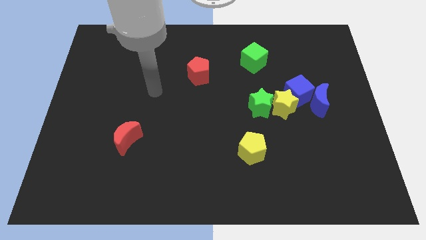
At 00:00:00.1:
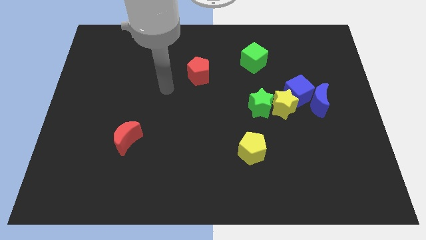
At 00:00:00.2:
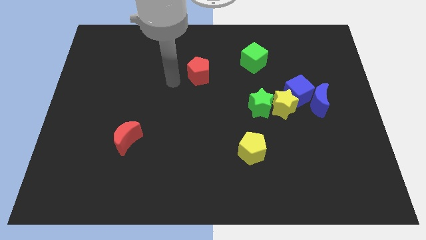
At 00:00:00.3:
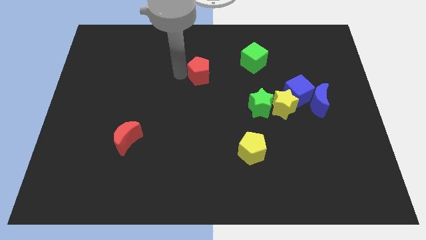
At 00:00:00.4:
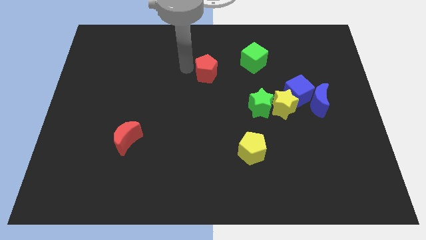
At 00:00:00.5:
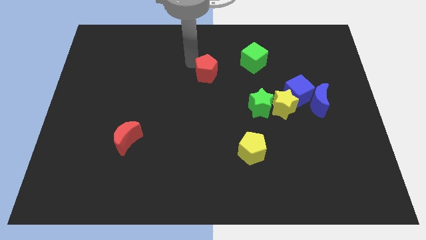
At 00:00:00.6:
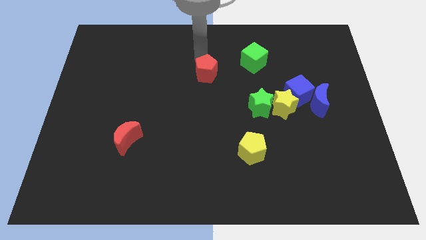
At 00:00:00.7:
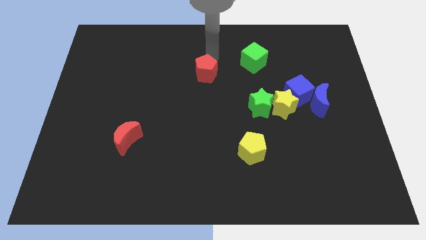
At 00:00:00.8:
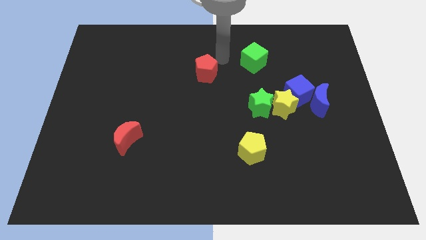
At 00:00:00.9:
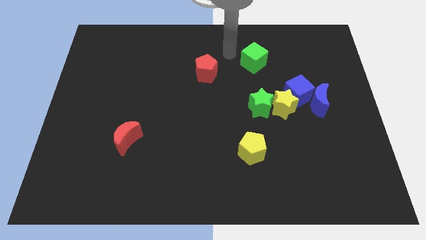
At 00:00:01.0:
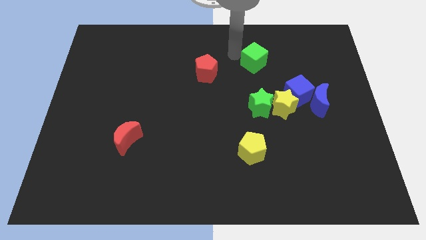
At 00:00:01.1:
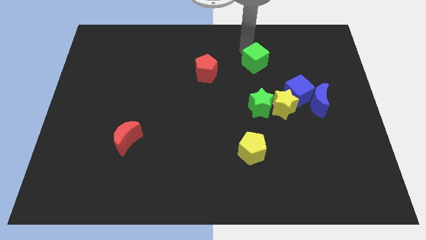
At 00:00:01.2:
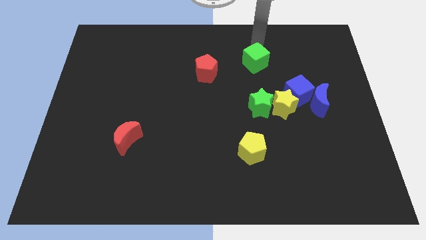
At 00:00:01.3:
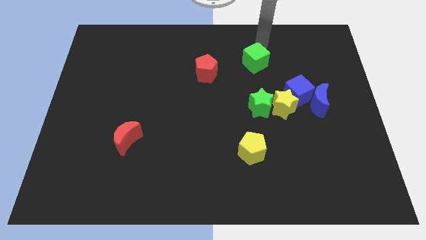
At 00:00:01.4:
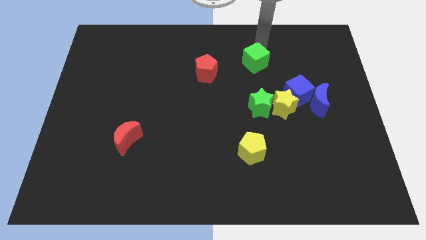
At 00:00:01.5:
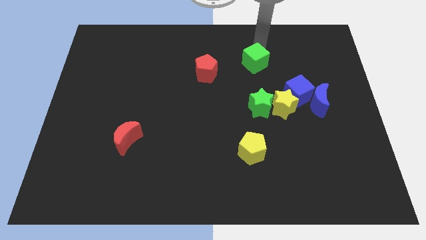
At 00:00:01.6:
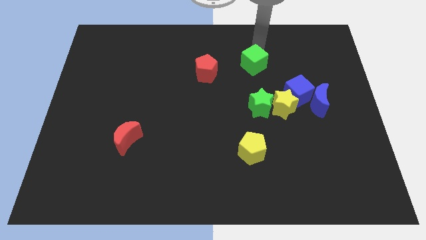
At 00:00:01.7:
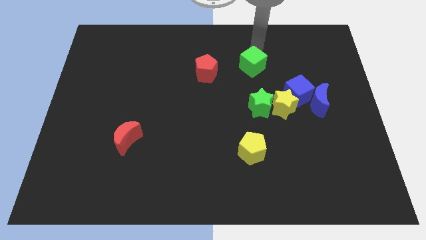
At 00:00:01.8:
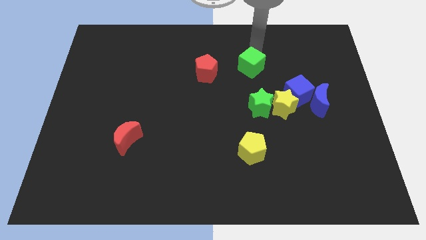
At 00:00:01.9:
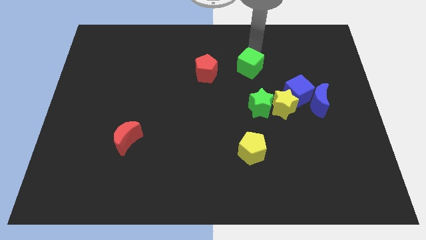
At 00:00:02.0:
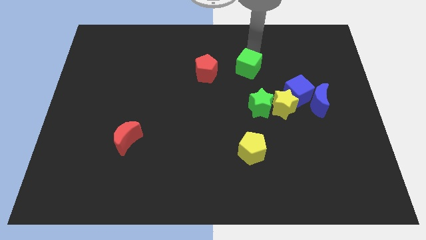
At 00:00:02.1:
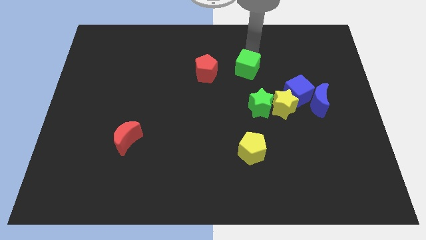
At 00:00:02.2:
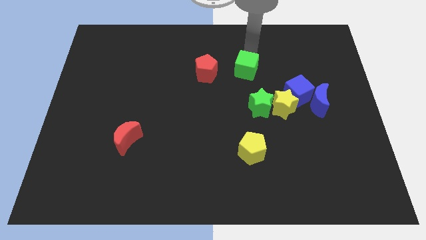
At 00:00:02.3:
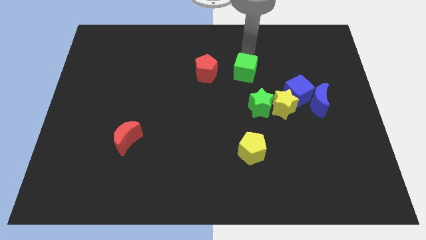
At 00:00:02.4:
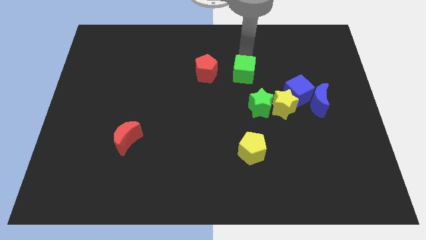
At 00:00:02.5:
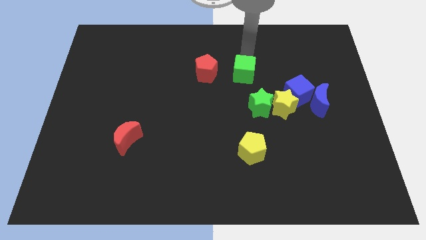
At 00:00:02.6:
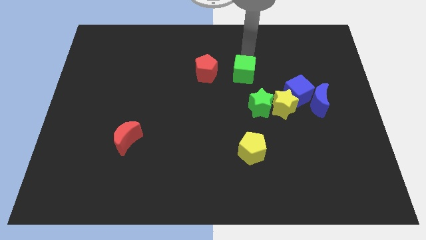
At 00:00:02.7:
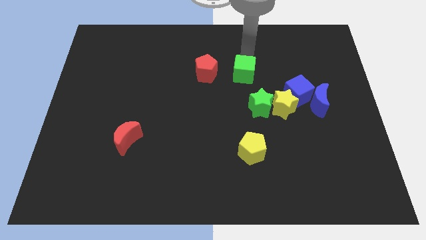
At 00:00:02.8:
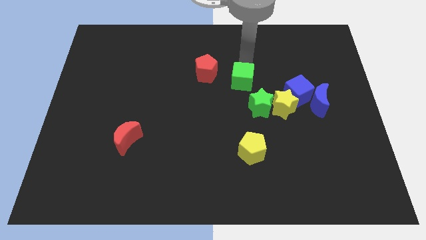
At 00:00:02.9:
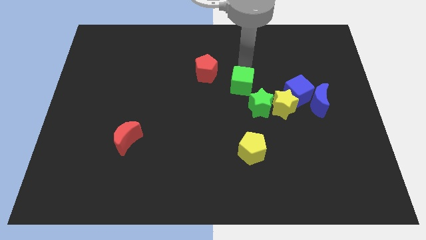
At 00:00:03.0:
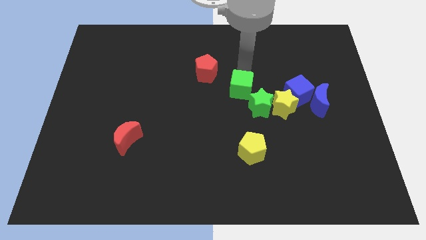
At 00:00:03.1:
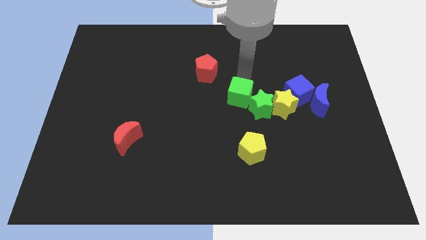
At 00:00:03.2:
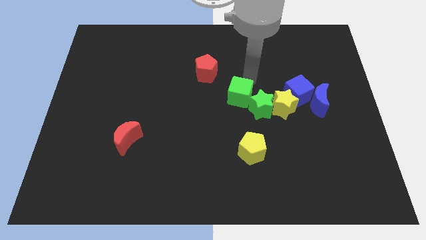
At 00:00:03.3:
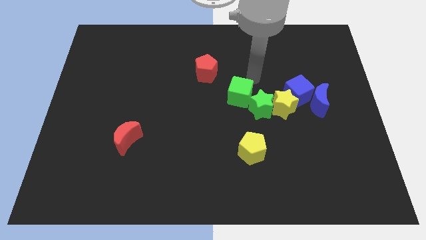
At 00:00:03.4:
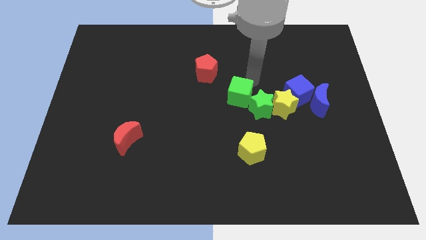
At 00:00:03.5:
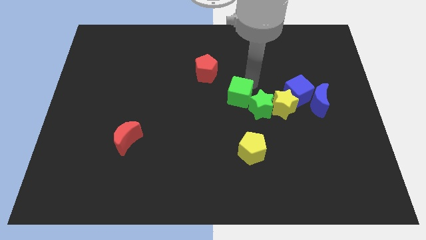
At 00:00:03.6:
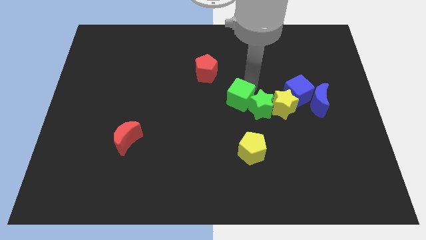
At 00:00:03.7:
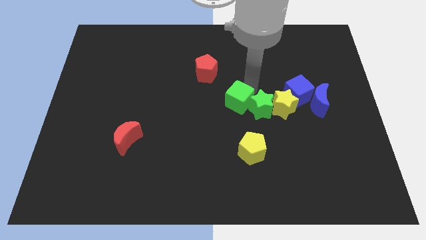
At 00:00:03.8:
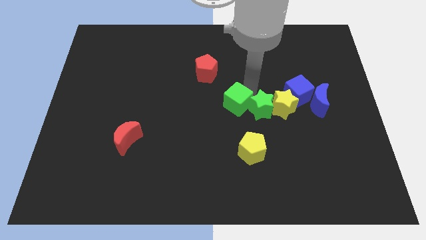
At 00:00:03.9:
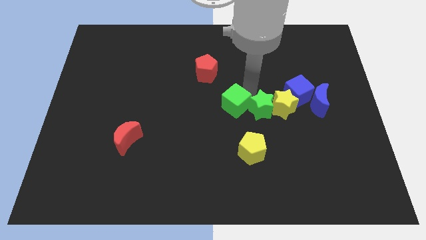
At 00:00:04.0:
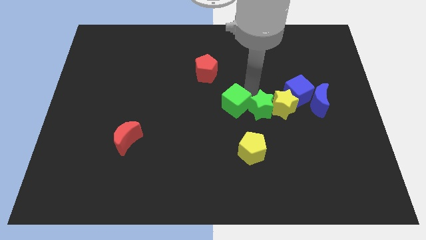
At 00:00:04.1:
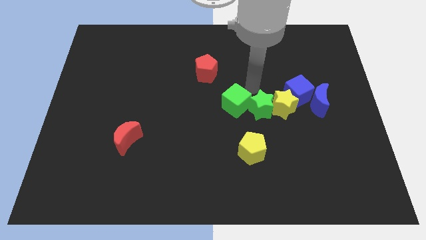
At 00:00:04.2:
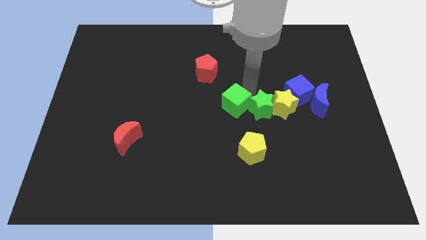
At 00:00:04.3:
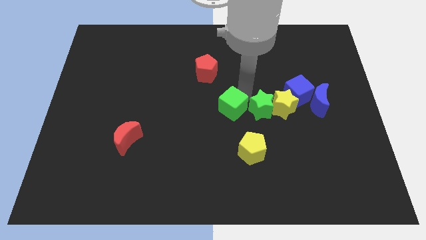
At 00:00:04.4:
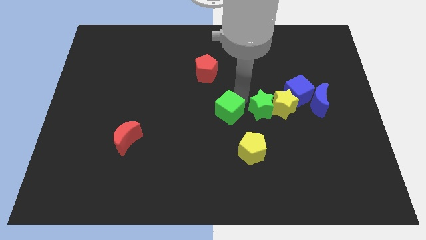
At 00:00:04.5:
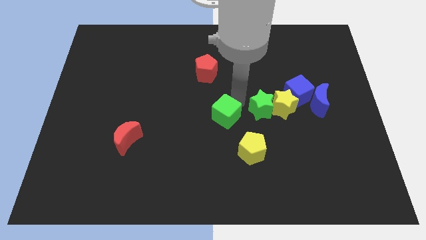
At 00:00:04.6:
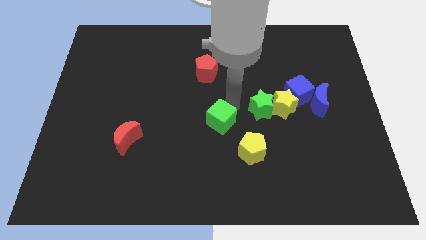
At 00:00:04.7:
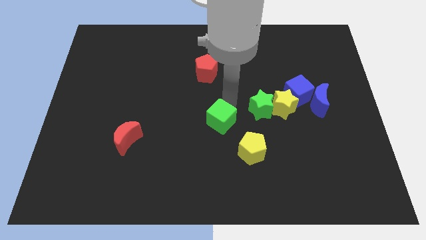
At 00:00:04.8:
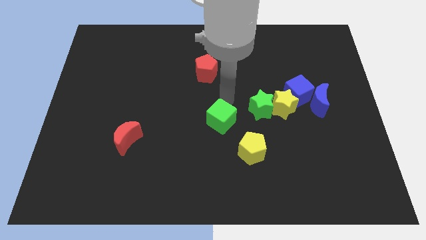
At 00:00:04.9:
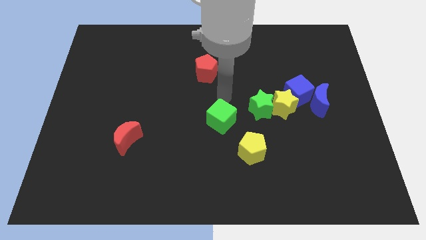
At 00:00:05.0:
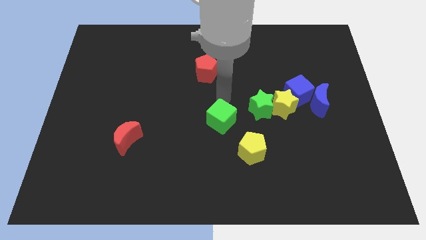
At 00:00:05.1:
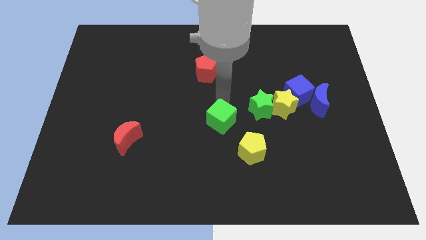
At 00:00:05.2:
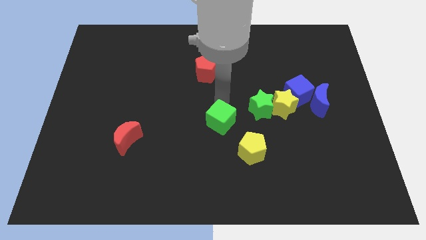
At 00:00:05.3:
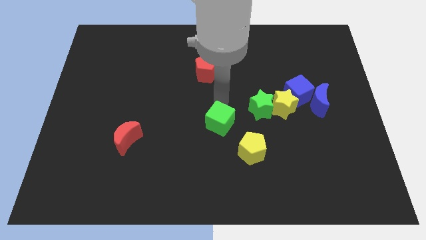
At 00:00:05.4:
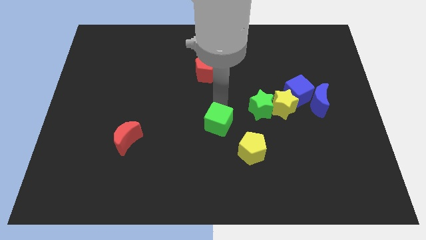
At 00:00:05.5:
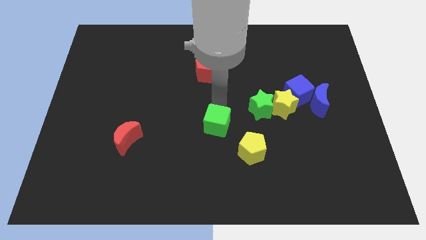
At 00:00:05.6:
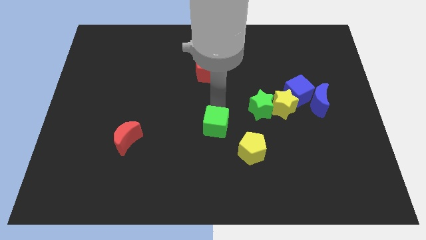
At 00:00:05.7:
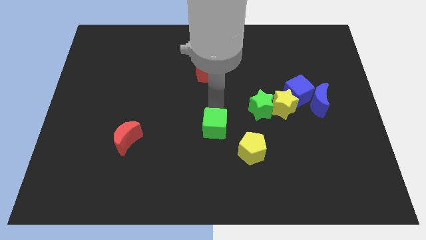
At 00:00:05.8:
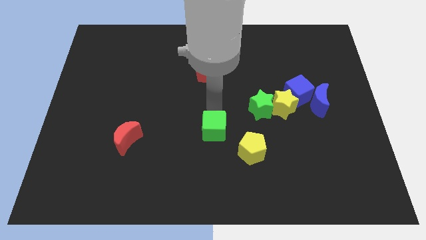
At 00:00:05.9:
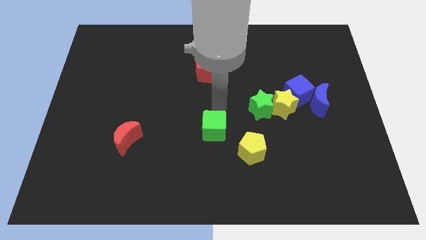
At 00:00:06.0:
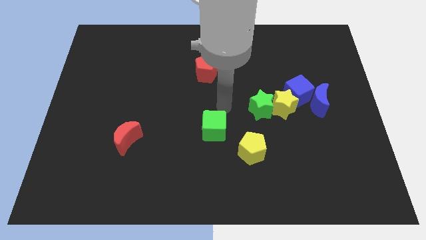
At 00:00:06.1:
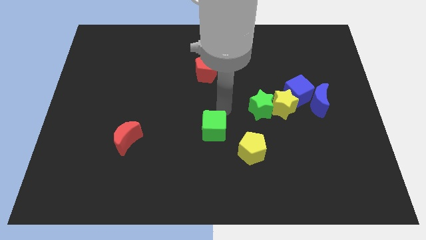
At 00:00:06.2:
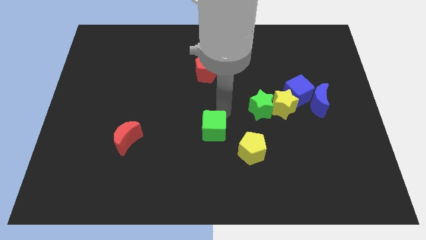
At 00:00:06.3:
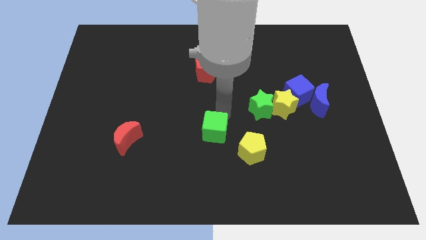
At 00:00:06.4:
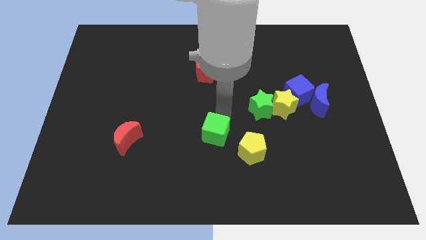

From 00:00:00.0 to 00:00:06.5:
move the green cube just left of the yellow pentagon

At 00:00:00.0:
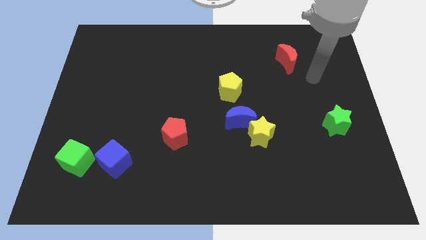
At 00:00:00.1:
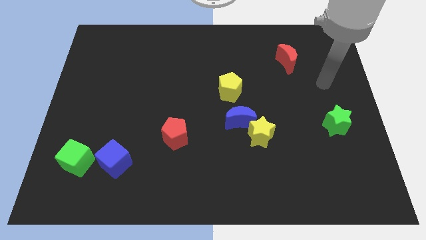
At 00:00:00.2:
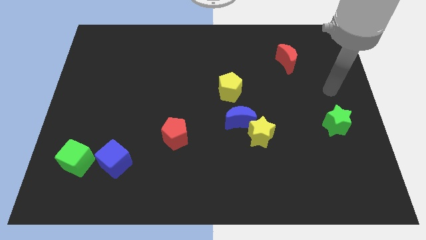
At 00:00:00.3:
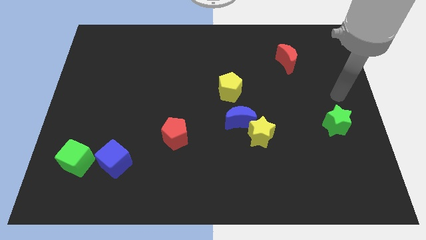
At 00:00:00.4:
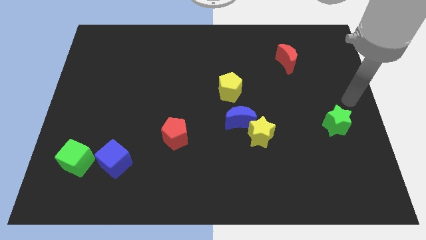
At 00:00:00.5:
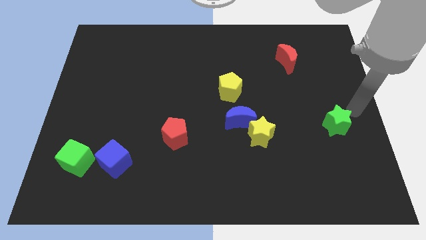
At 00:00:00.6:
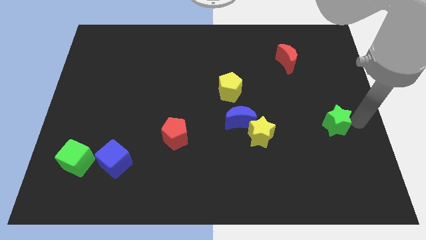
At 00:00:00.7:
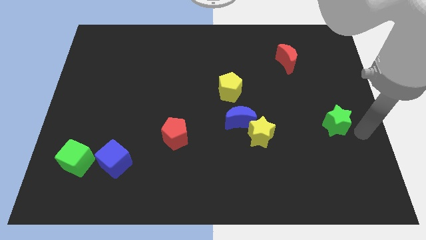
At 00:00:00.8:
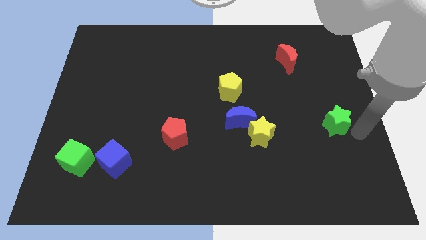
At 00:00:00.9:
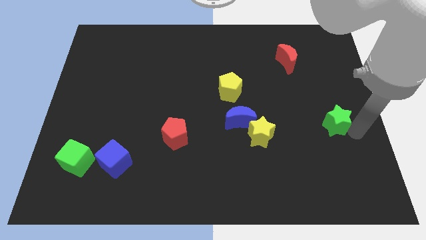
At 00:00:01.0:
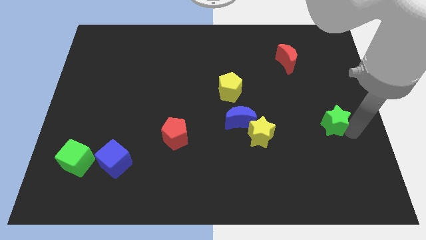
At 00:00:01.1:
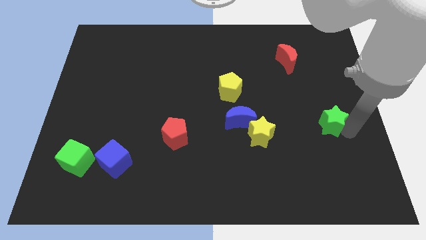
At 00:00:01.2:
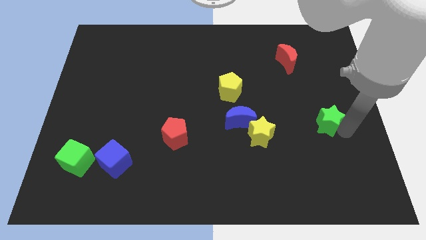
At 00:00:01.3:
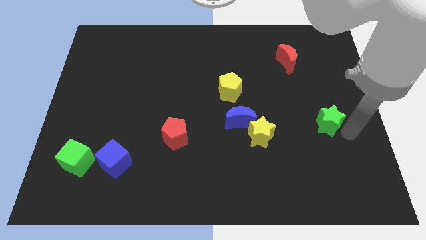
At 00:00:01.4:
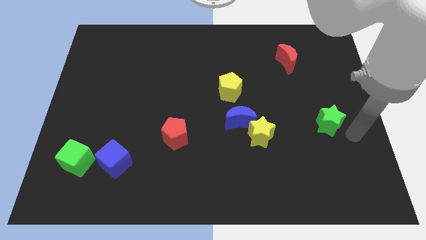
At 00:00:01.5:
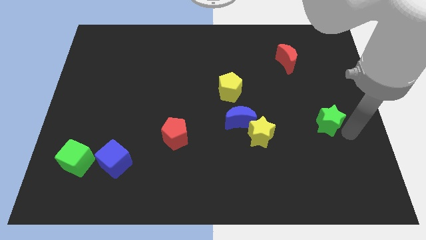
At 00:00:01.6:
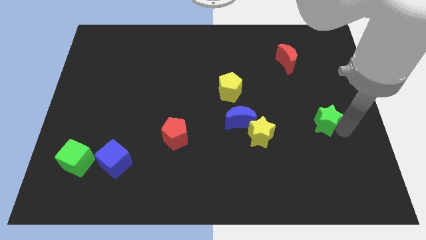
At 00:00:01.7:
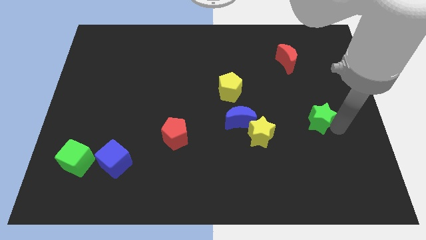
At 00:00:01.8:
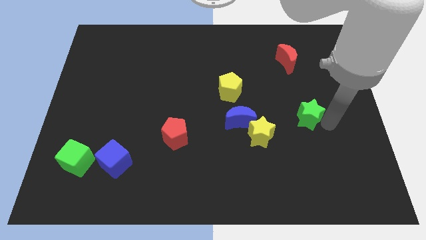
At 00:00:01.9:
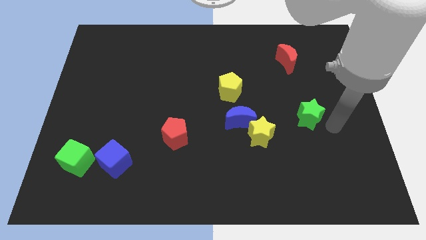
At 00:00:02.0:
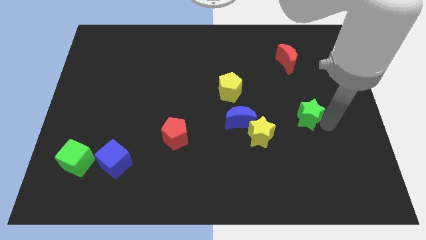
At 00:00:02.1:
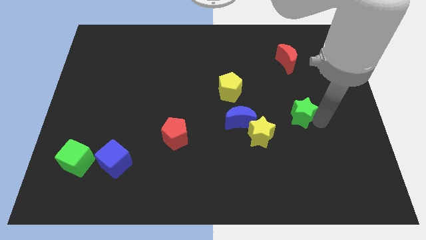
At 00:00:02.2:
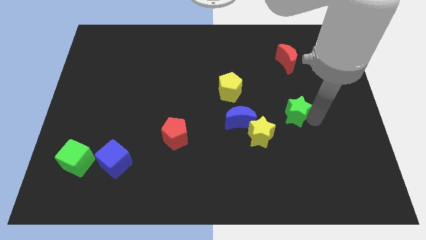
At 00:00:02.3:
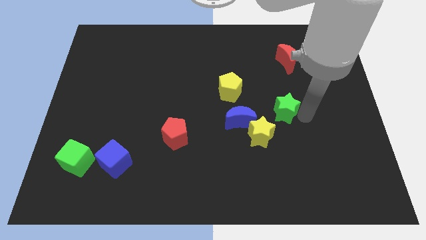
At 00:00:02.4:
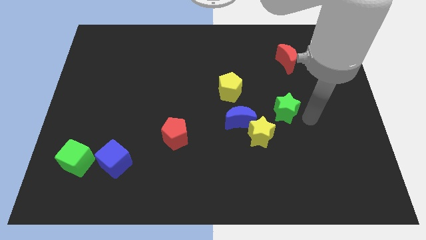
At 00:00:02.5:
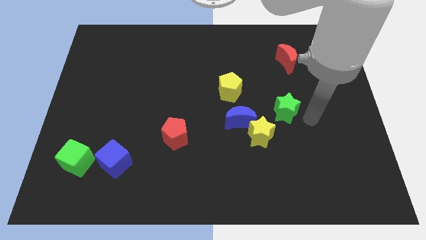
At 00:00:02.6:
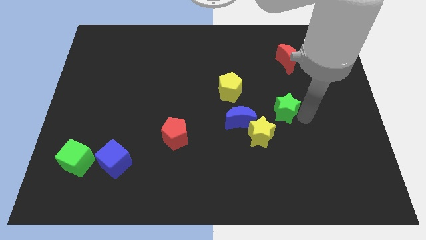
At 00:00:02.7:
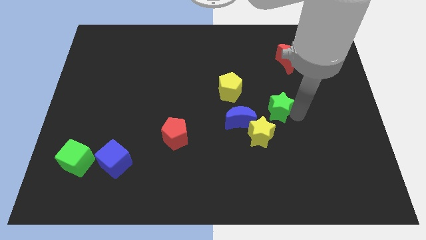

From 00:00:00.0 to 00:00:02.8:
put the green star to the top right side of the blue moon
